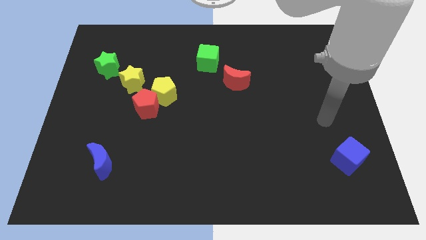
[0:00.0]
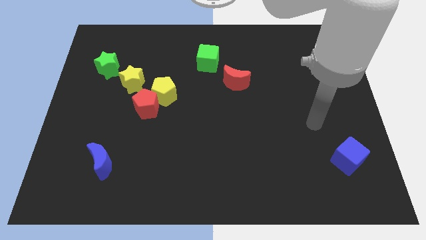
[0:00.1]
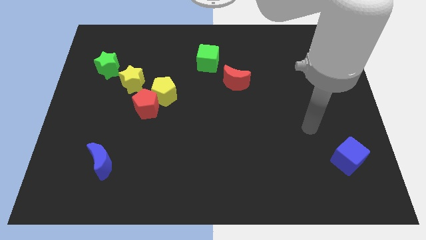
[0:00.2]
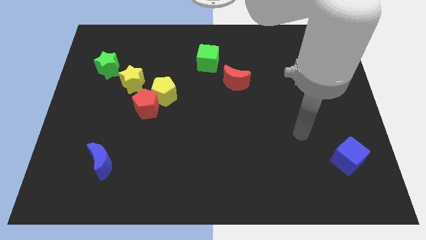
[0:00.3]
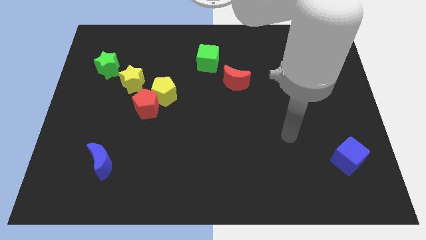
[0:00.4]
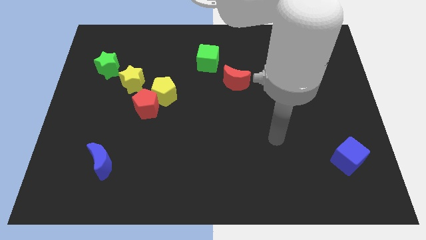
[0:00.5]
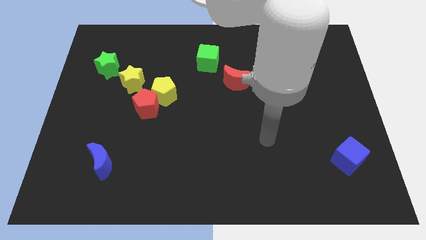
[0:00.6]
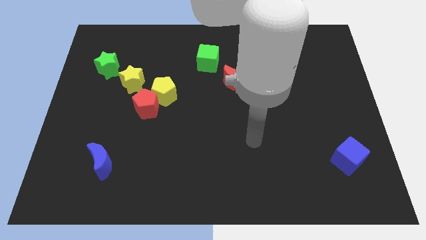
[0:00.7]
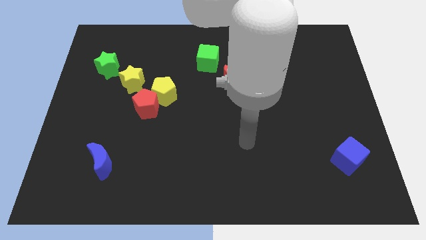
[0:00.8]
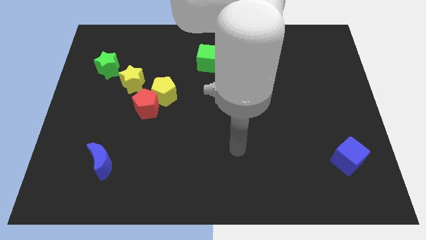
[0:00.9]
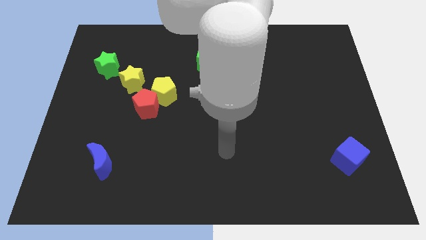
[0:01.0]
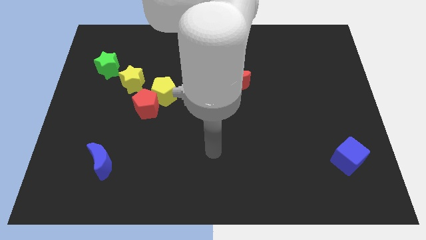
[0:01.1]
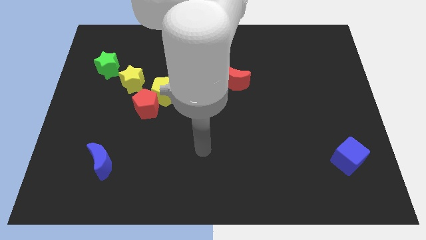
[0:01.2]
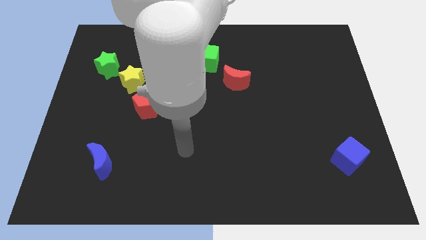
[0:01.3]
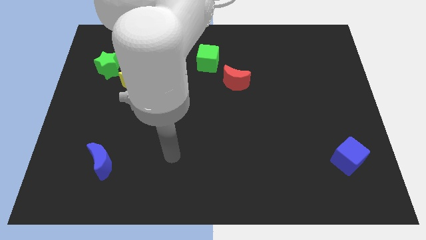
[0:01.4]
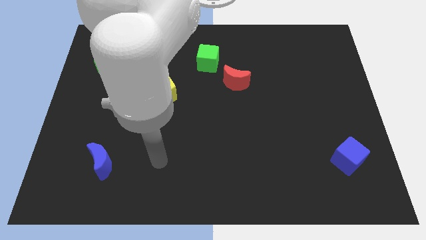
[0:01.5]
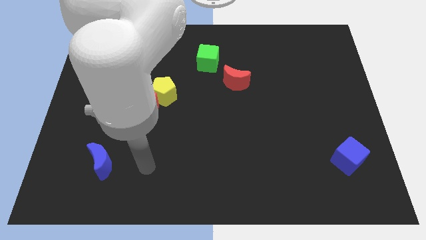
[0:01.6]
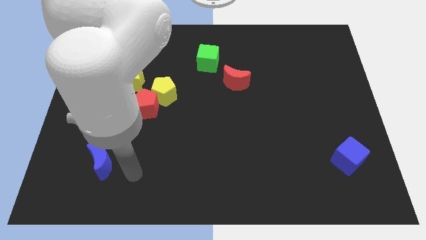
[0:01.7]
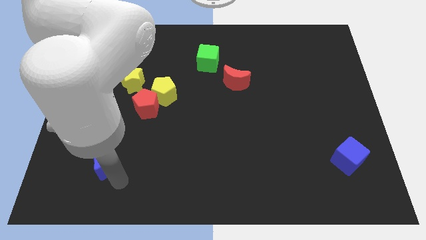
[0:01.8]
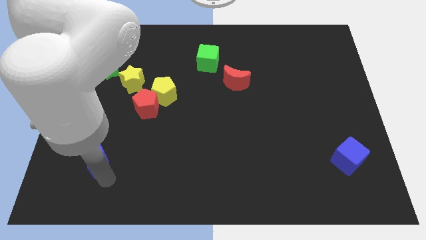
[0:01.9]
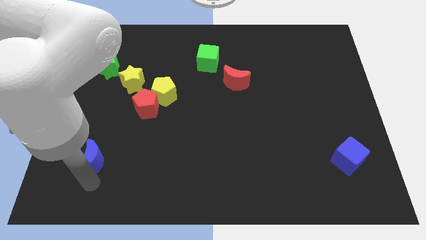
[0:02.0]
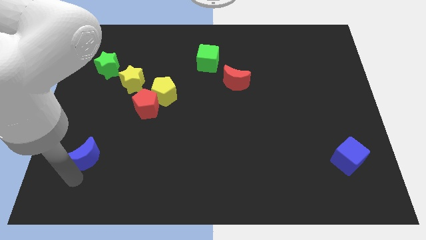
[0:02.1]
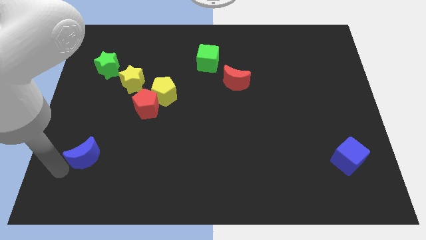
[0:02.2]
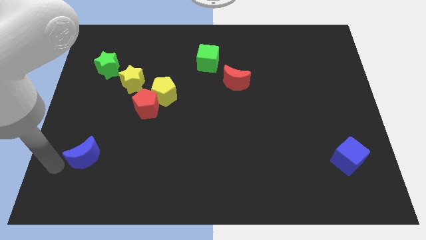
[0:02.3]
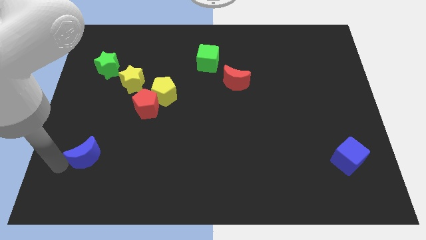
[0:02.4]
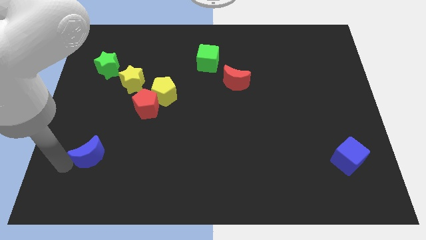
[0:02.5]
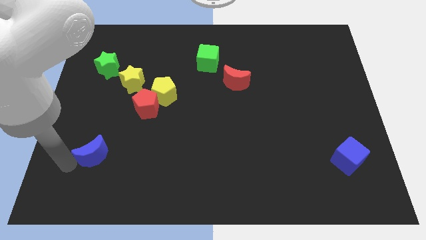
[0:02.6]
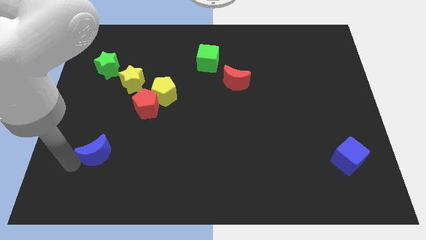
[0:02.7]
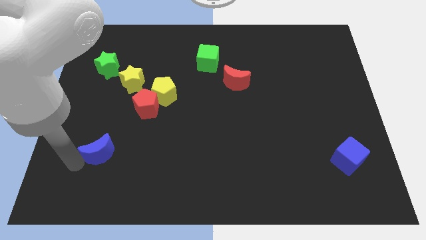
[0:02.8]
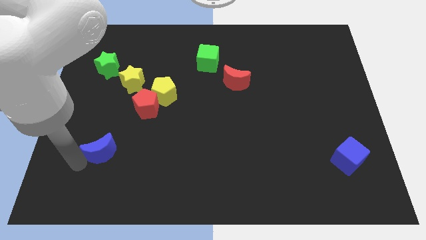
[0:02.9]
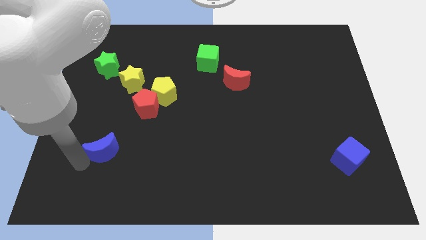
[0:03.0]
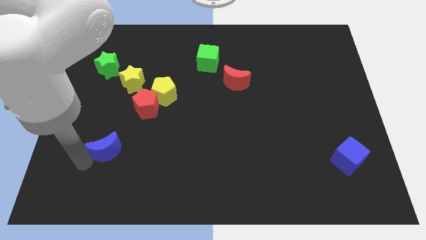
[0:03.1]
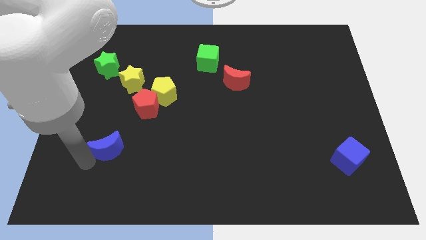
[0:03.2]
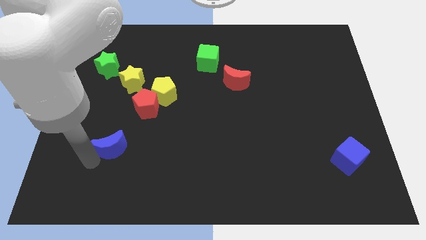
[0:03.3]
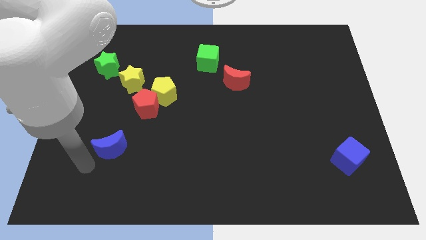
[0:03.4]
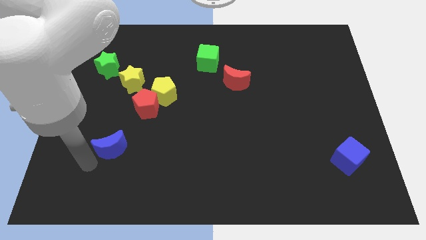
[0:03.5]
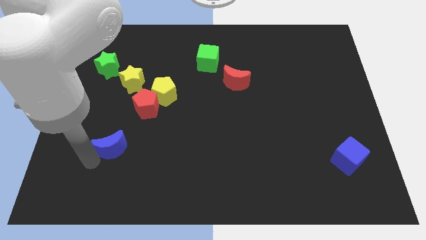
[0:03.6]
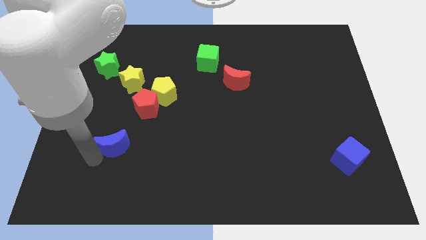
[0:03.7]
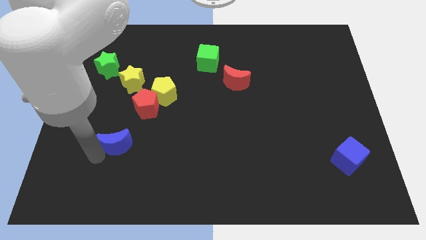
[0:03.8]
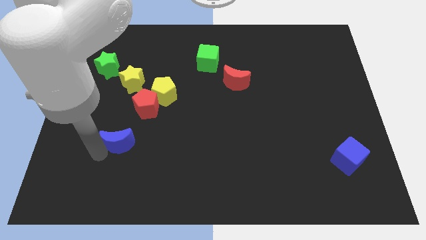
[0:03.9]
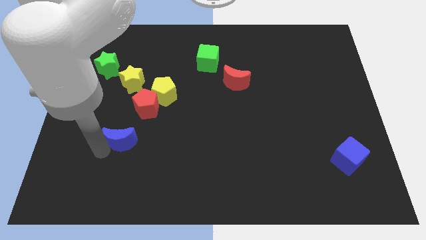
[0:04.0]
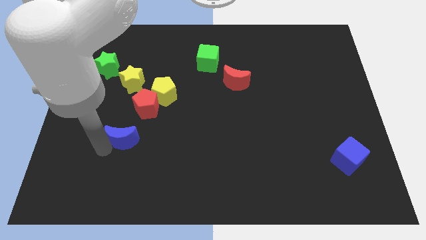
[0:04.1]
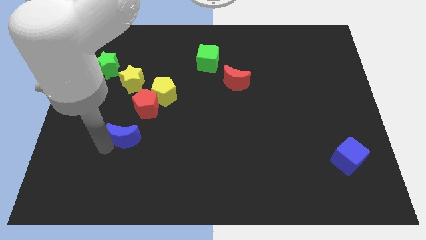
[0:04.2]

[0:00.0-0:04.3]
slightly move the blue moon upwards and right diagonally

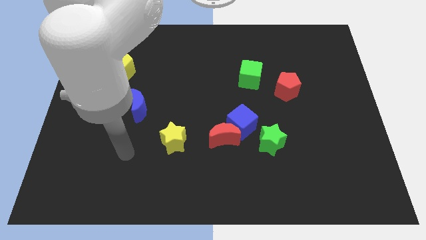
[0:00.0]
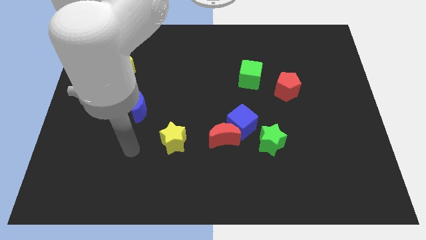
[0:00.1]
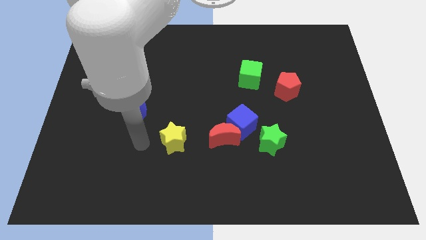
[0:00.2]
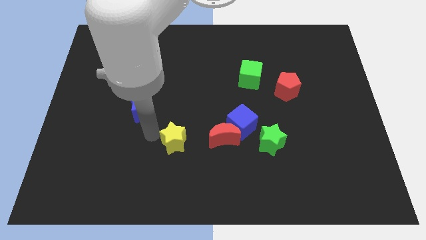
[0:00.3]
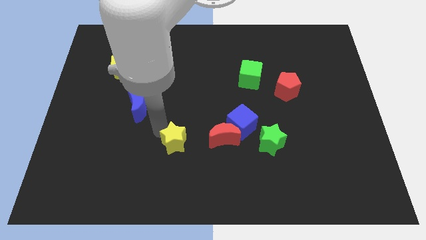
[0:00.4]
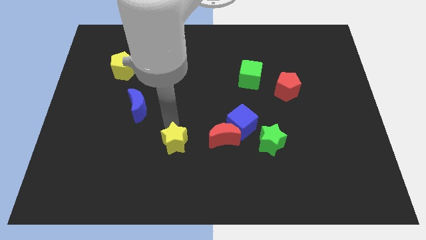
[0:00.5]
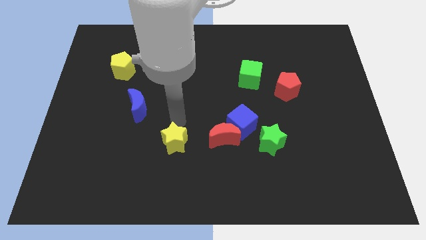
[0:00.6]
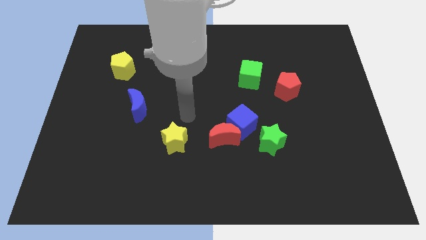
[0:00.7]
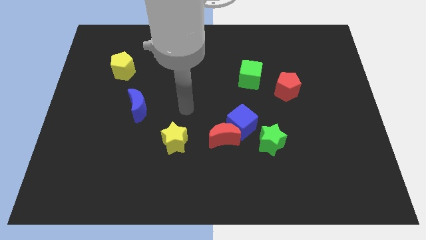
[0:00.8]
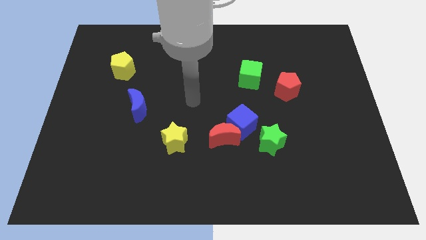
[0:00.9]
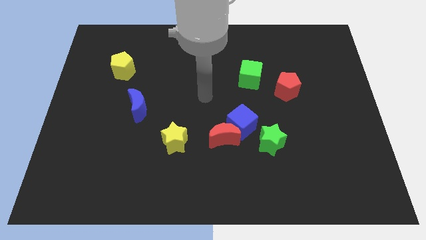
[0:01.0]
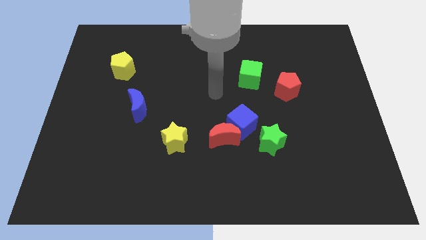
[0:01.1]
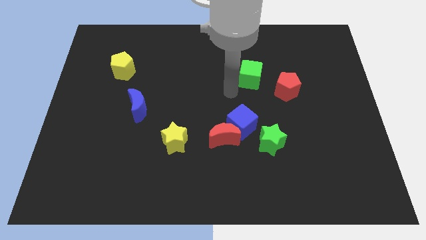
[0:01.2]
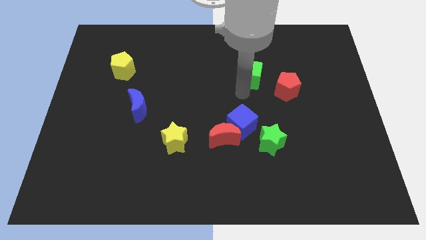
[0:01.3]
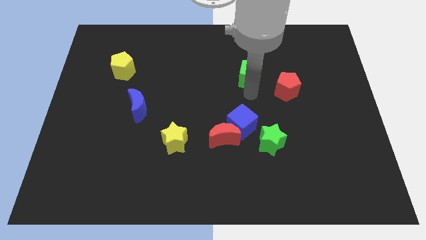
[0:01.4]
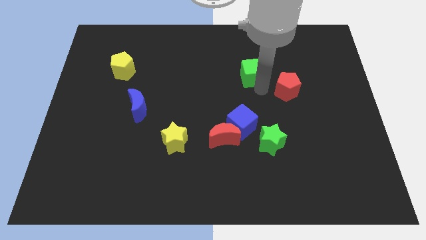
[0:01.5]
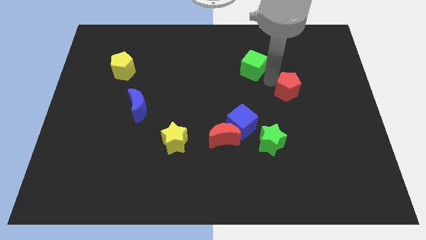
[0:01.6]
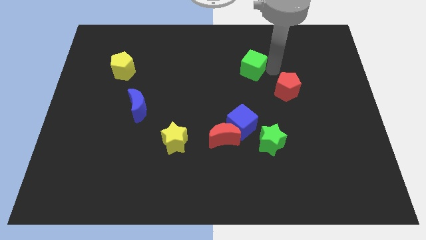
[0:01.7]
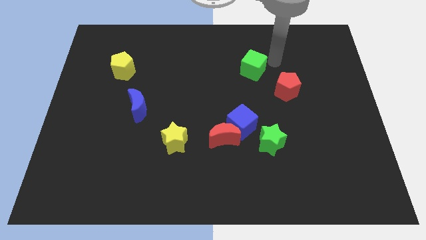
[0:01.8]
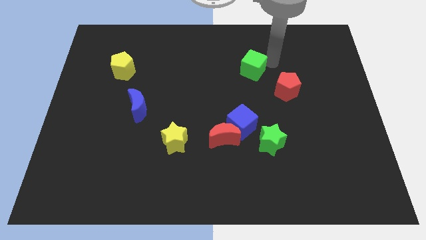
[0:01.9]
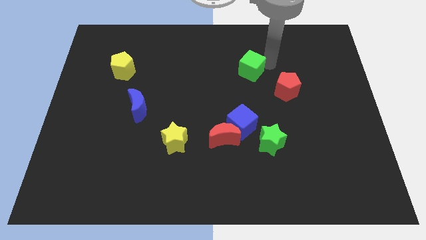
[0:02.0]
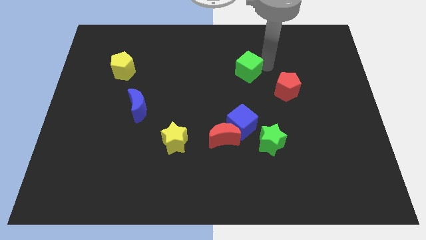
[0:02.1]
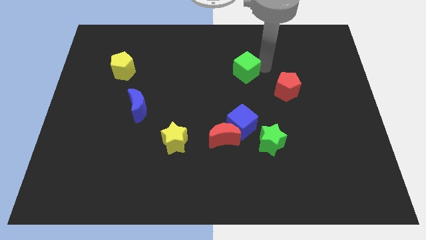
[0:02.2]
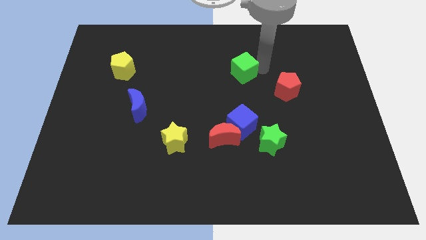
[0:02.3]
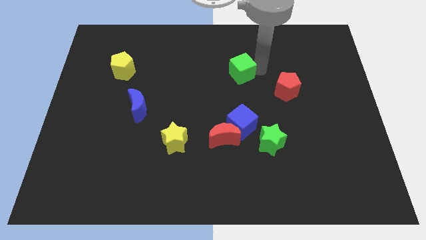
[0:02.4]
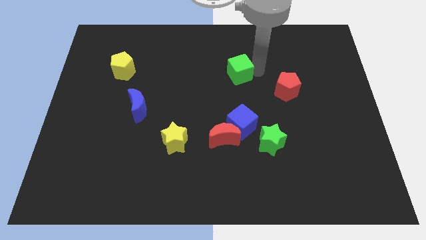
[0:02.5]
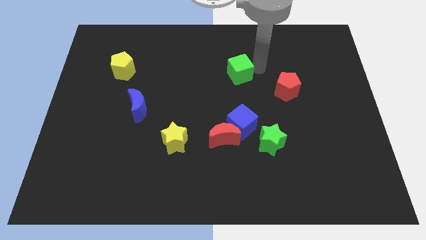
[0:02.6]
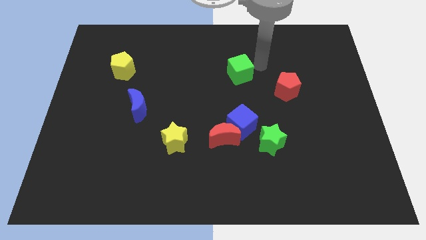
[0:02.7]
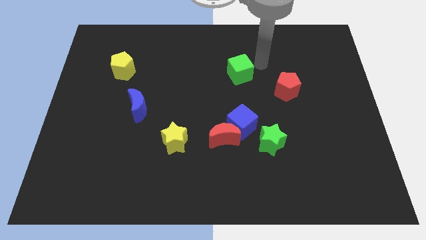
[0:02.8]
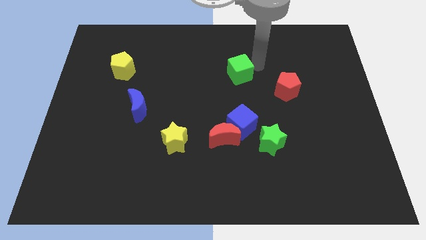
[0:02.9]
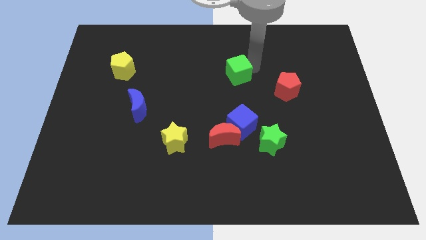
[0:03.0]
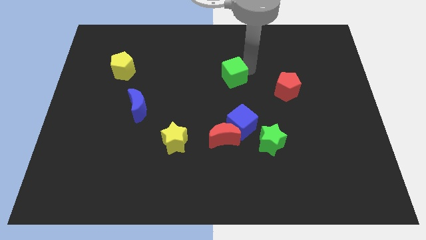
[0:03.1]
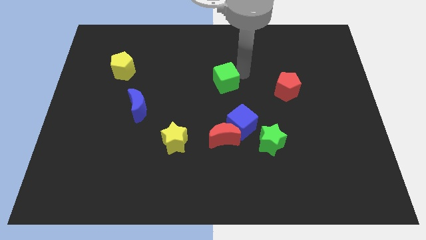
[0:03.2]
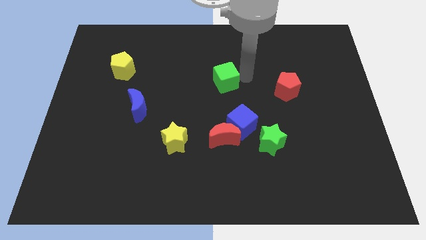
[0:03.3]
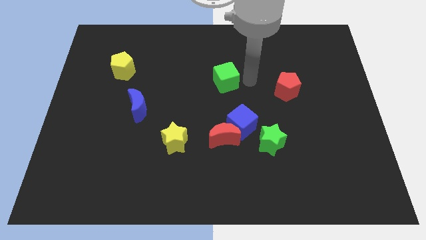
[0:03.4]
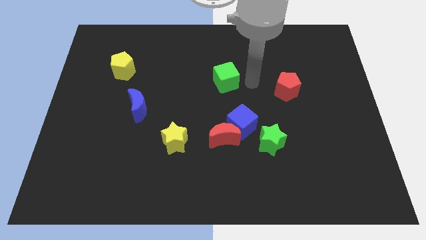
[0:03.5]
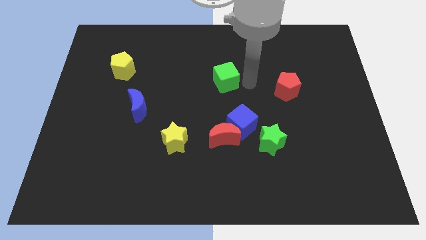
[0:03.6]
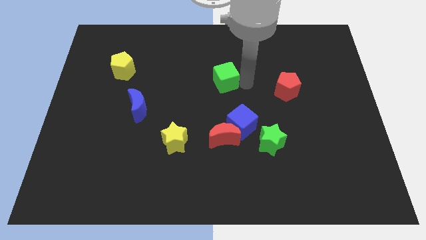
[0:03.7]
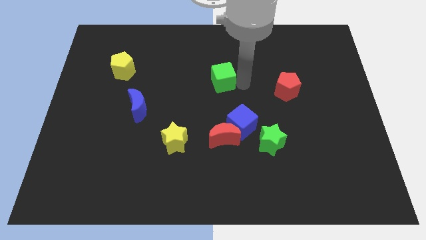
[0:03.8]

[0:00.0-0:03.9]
slightly push the green cube left
